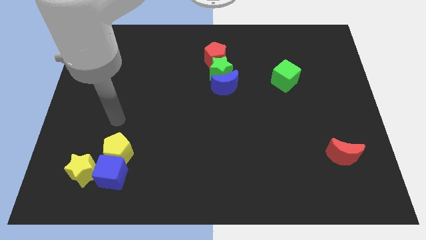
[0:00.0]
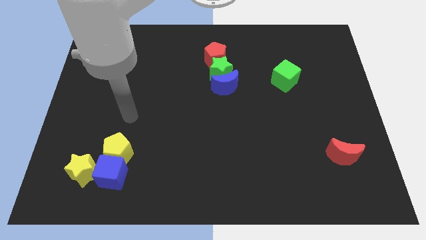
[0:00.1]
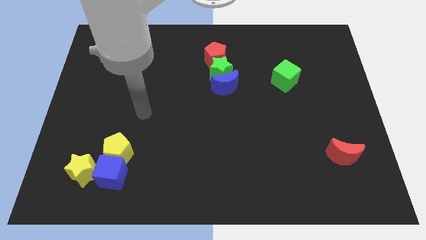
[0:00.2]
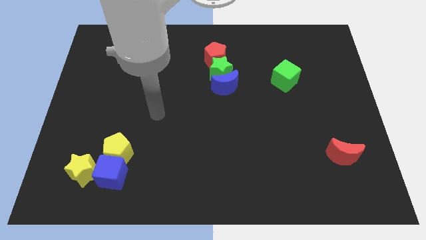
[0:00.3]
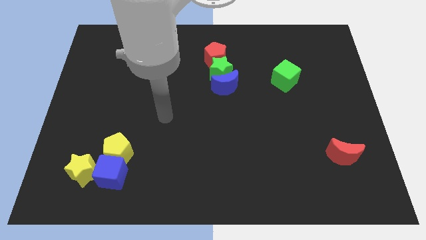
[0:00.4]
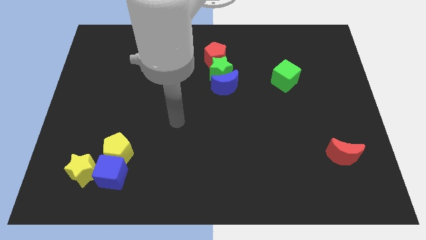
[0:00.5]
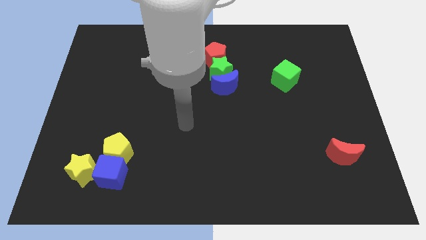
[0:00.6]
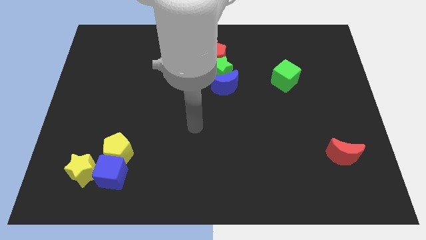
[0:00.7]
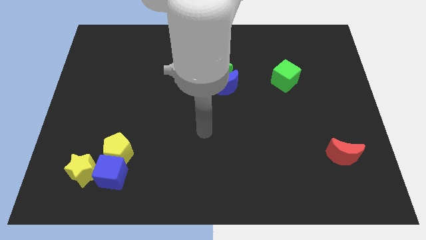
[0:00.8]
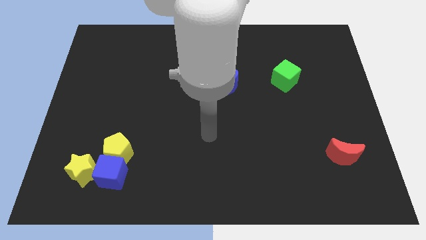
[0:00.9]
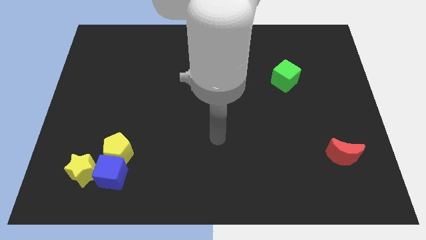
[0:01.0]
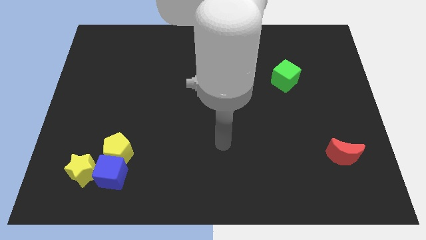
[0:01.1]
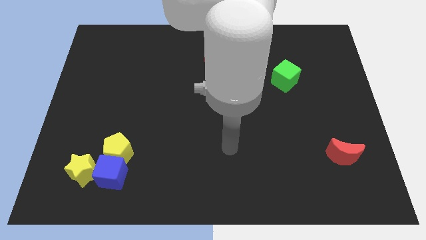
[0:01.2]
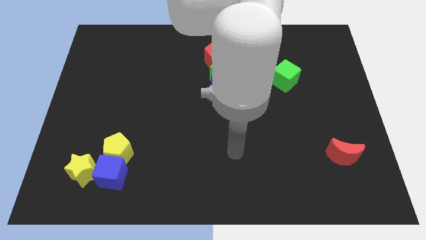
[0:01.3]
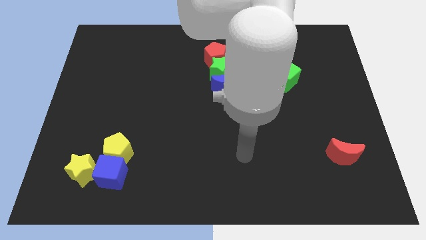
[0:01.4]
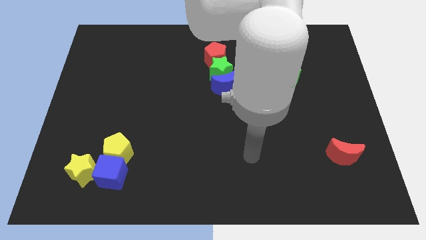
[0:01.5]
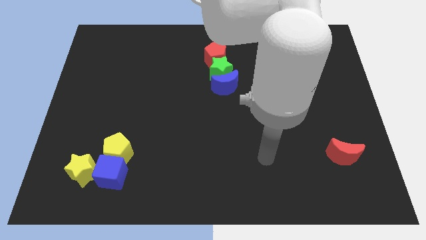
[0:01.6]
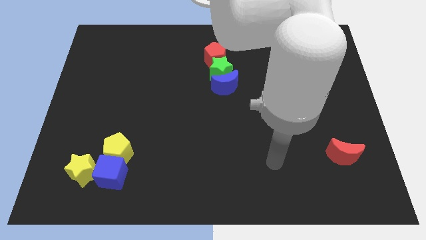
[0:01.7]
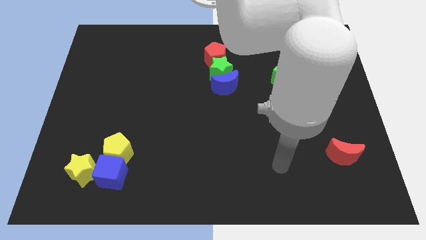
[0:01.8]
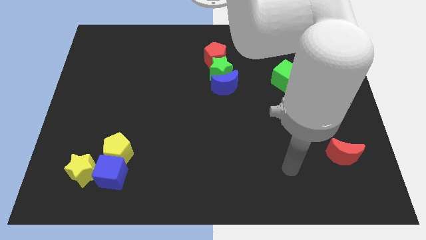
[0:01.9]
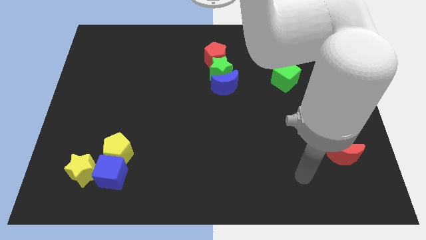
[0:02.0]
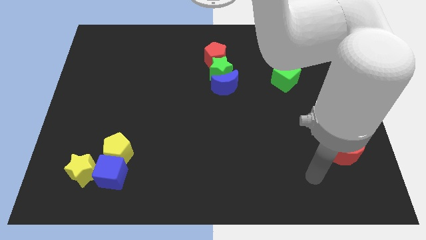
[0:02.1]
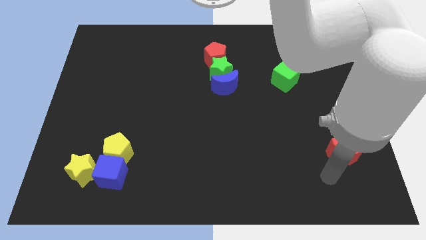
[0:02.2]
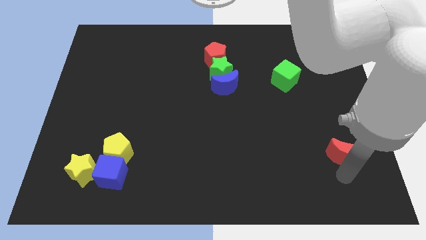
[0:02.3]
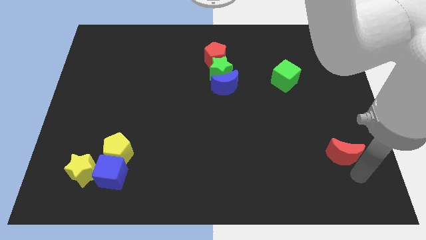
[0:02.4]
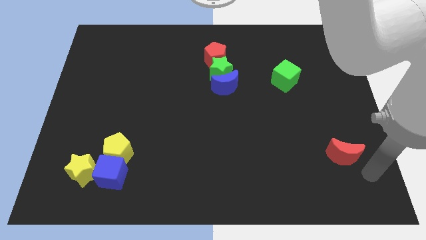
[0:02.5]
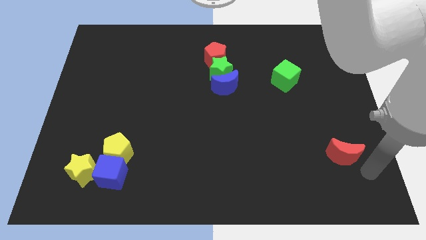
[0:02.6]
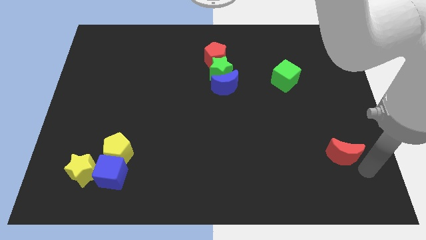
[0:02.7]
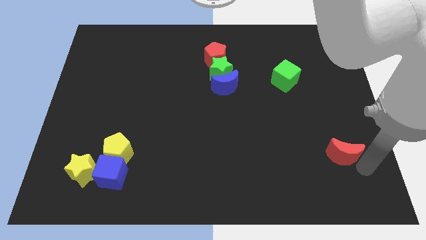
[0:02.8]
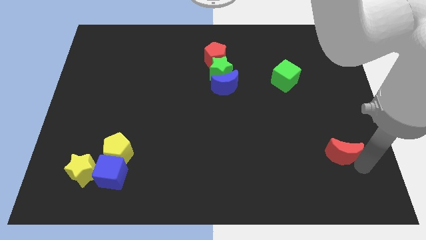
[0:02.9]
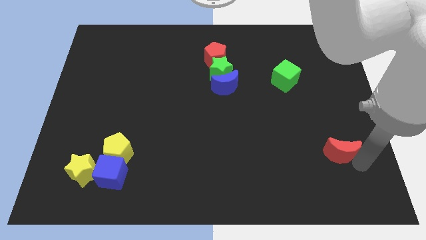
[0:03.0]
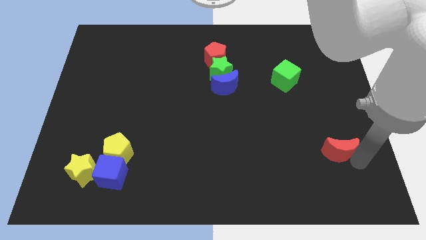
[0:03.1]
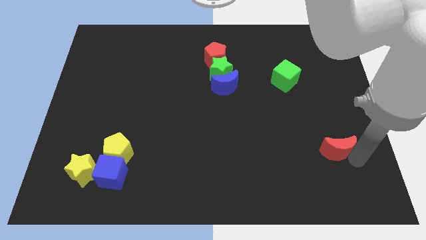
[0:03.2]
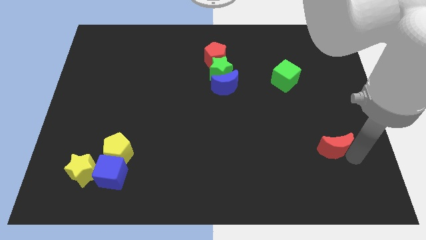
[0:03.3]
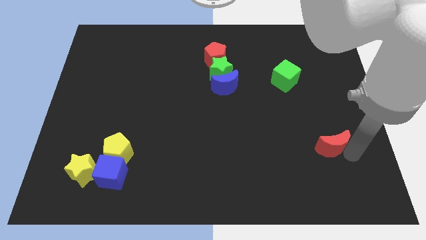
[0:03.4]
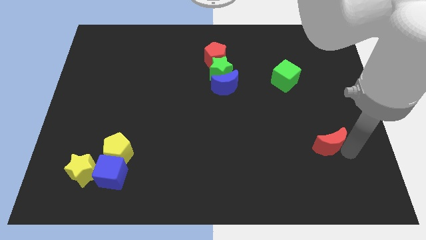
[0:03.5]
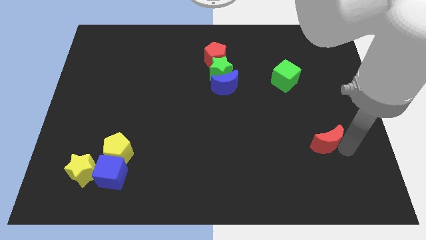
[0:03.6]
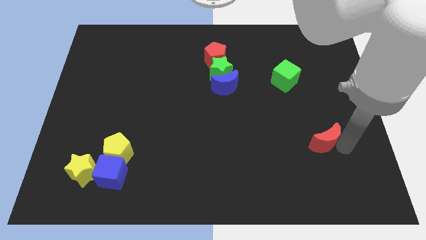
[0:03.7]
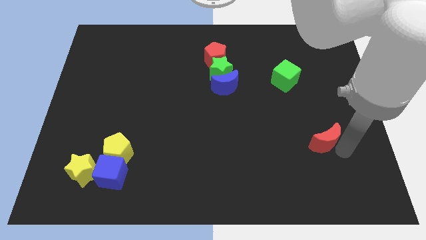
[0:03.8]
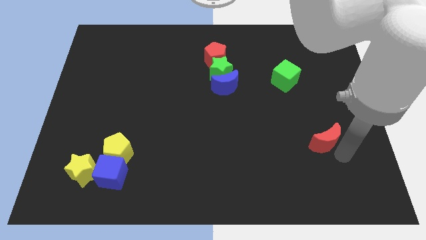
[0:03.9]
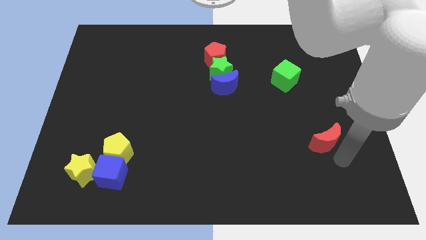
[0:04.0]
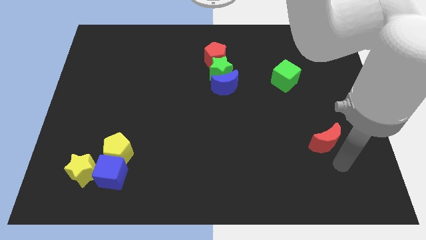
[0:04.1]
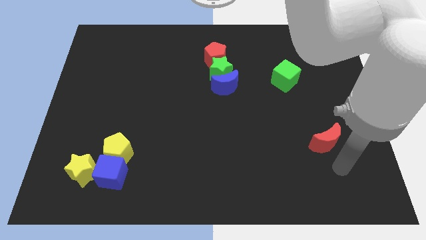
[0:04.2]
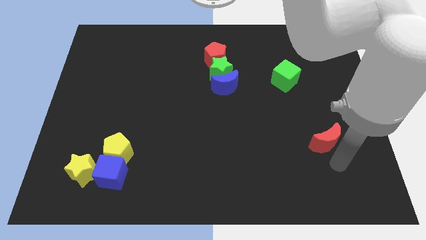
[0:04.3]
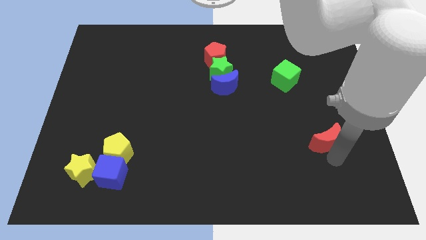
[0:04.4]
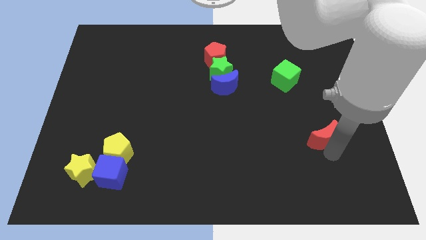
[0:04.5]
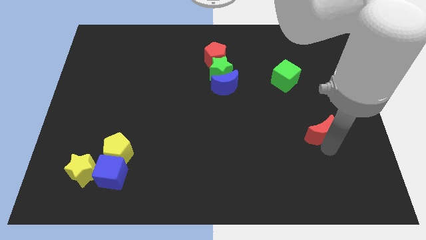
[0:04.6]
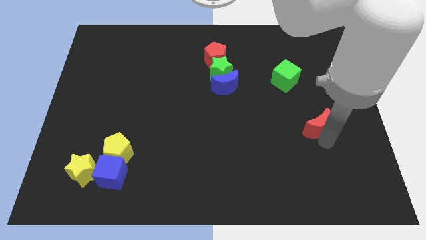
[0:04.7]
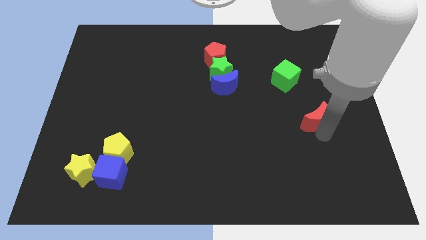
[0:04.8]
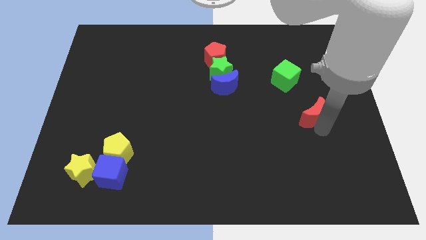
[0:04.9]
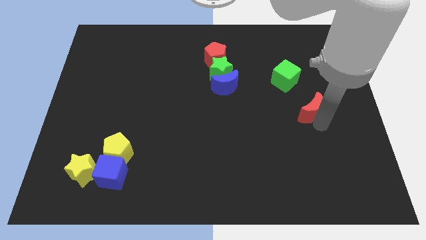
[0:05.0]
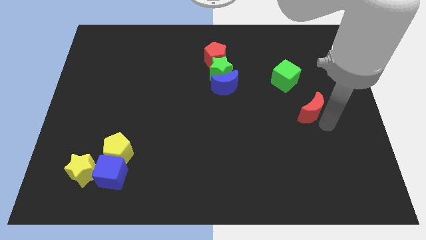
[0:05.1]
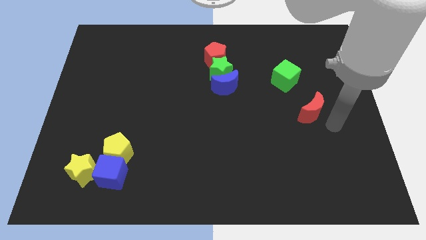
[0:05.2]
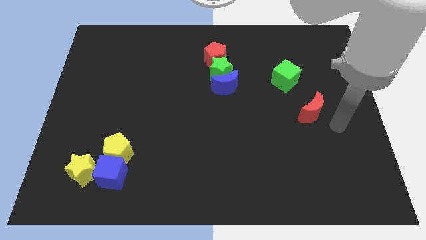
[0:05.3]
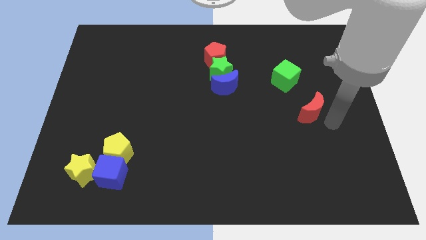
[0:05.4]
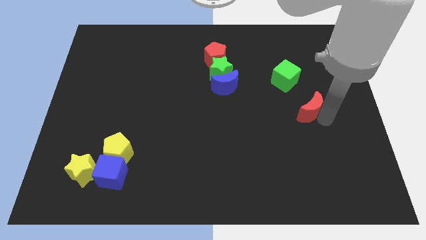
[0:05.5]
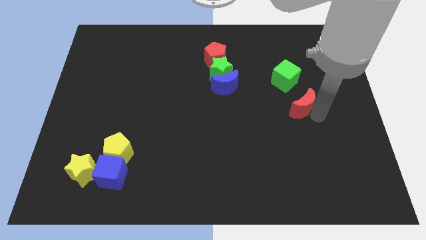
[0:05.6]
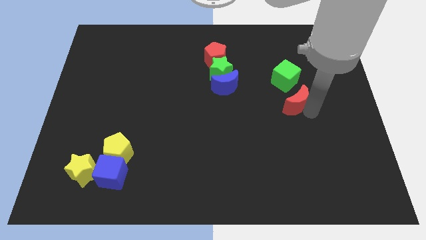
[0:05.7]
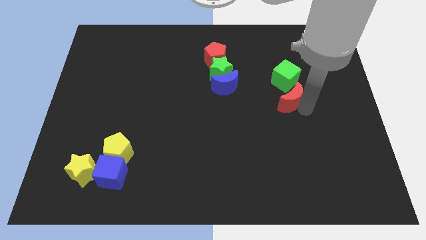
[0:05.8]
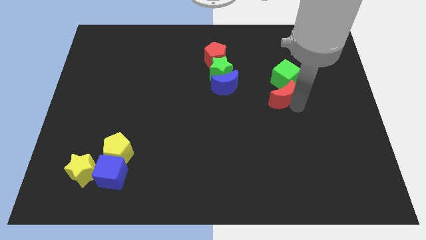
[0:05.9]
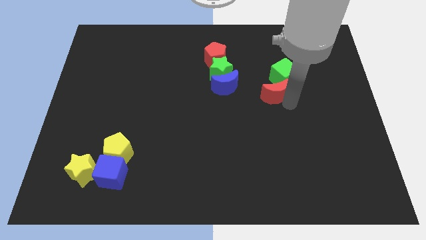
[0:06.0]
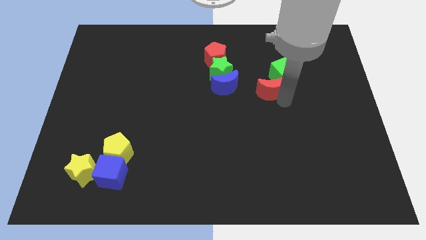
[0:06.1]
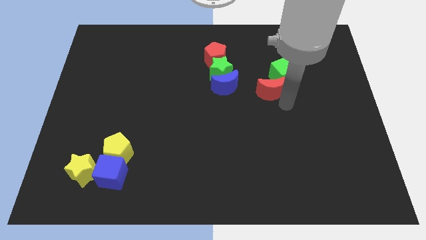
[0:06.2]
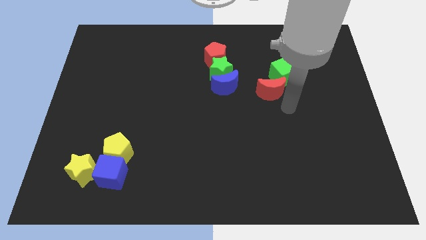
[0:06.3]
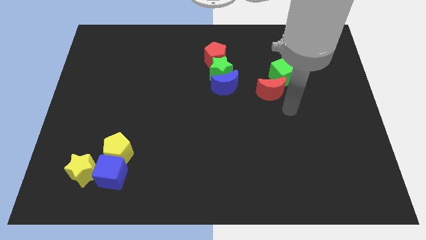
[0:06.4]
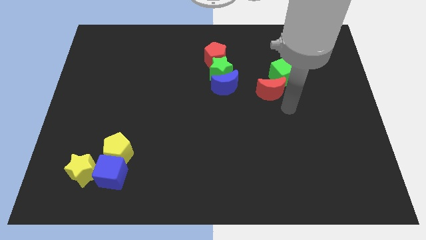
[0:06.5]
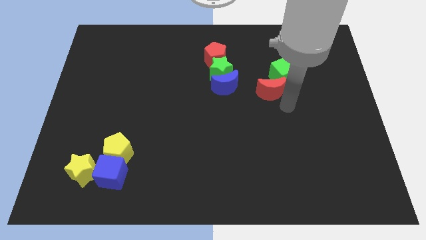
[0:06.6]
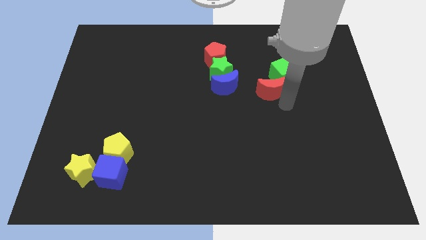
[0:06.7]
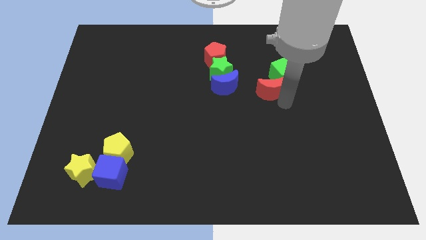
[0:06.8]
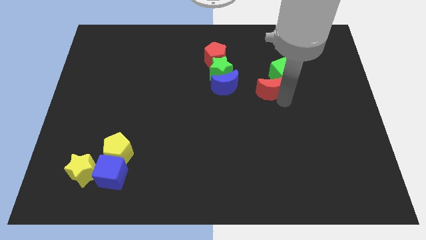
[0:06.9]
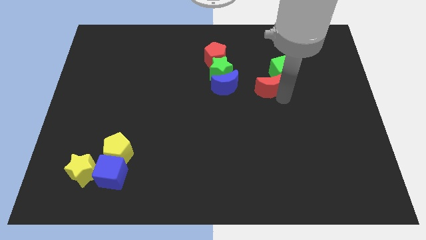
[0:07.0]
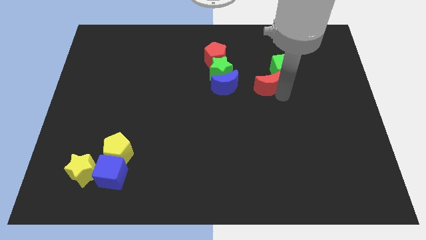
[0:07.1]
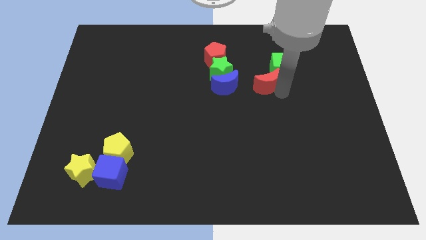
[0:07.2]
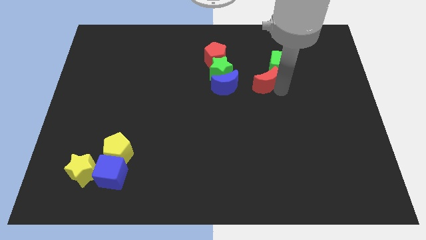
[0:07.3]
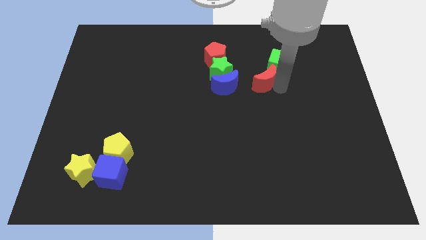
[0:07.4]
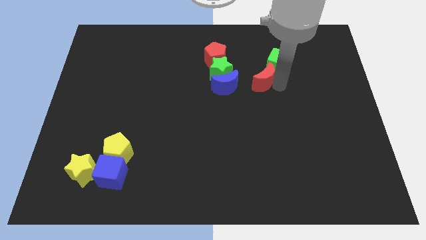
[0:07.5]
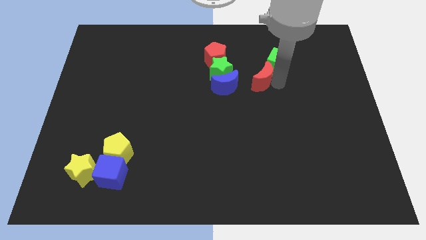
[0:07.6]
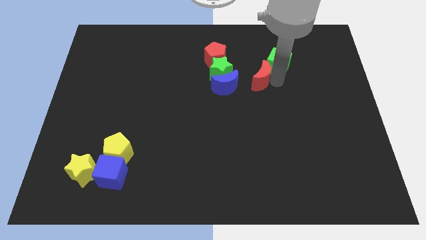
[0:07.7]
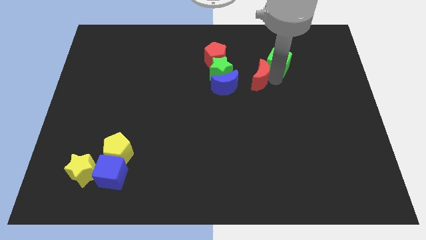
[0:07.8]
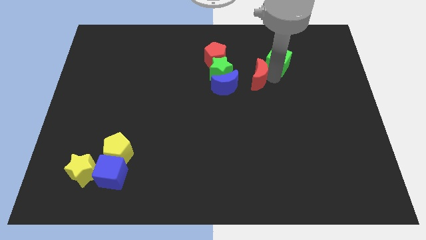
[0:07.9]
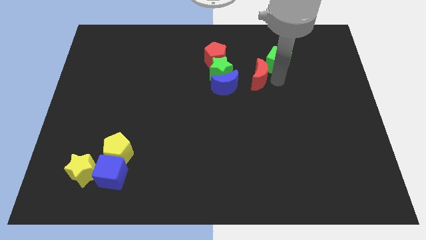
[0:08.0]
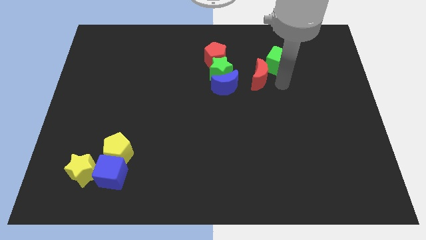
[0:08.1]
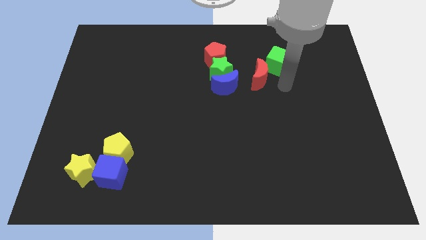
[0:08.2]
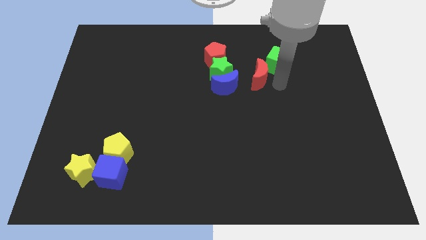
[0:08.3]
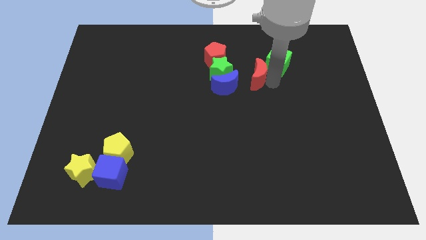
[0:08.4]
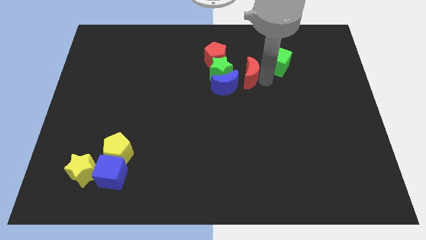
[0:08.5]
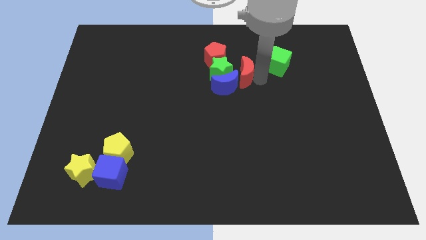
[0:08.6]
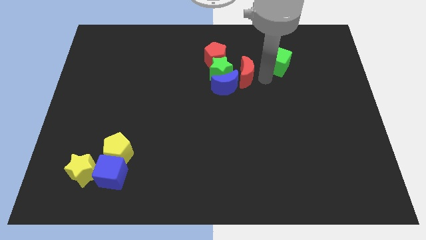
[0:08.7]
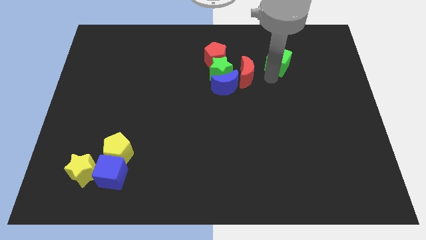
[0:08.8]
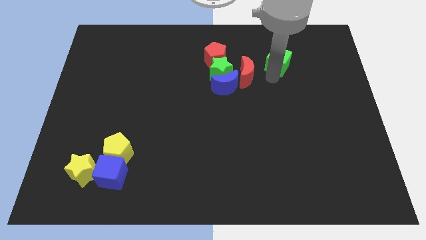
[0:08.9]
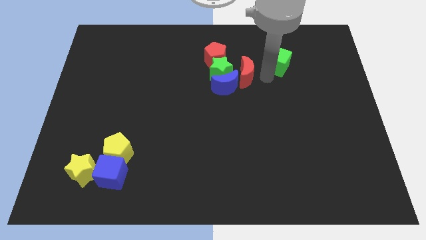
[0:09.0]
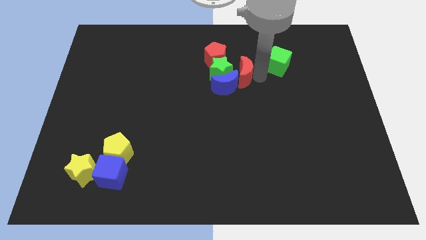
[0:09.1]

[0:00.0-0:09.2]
put the red moon to the green star
